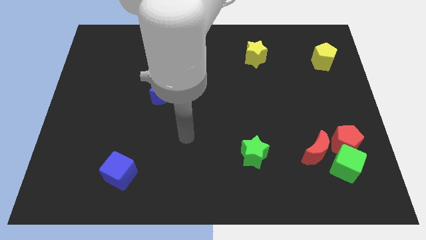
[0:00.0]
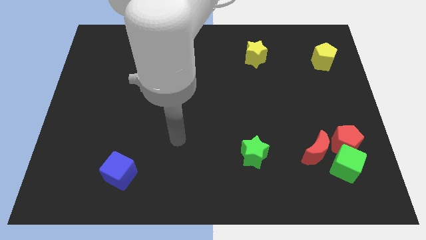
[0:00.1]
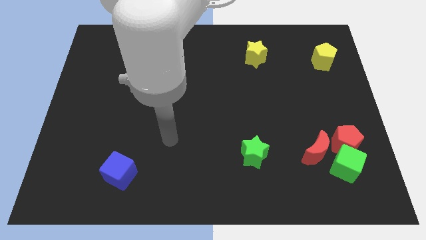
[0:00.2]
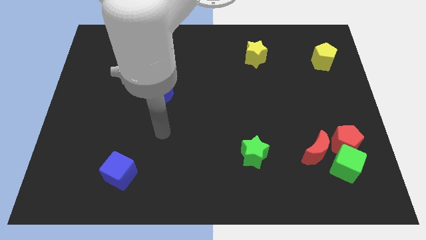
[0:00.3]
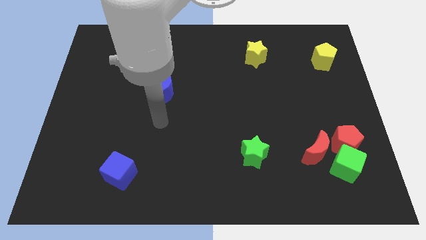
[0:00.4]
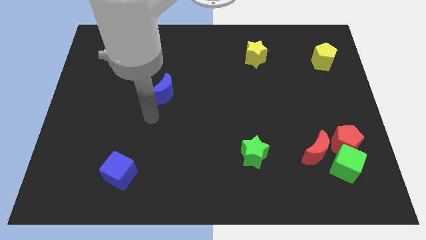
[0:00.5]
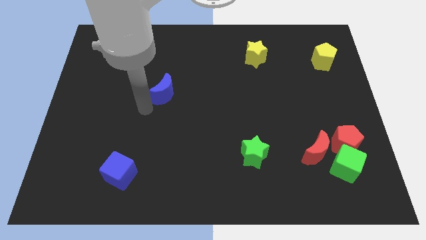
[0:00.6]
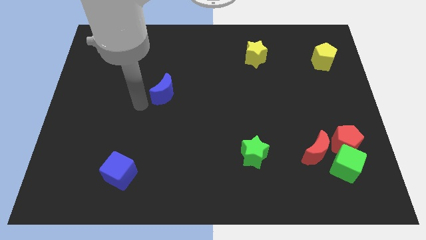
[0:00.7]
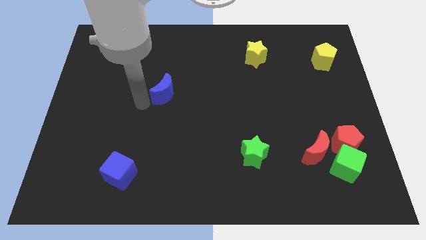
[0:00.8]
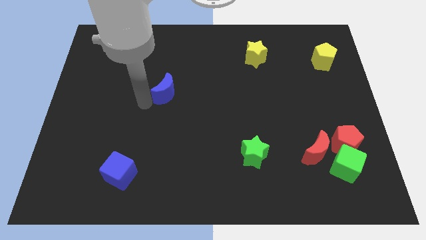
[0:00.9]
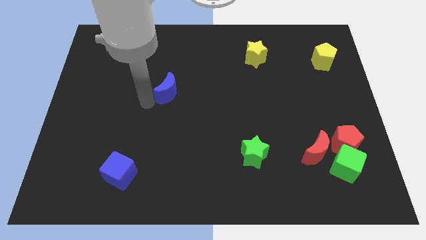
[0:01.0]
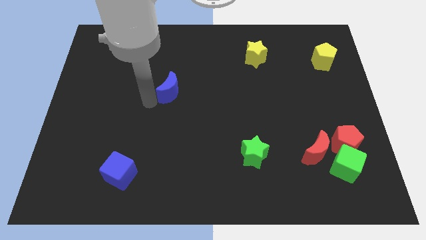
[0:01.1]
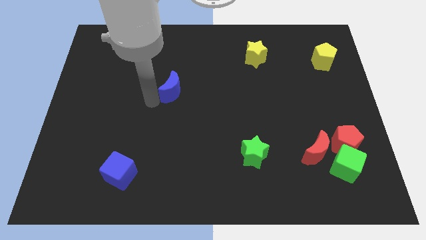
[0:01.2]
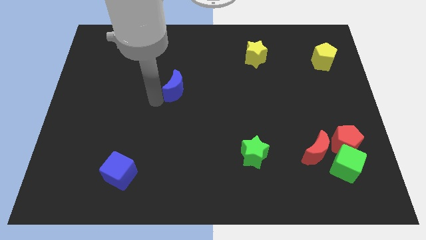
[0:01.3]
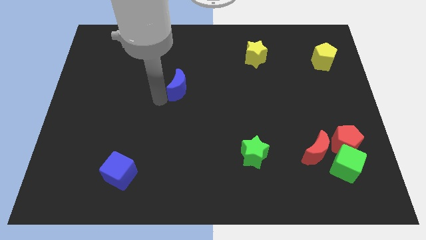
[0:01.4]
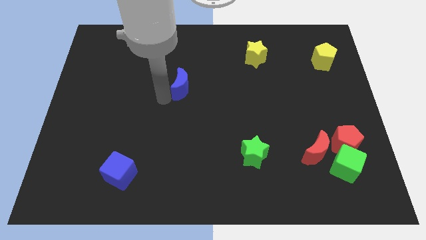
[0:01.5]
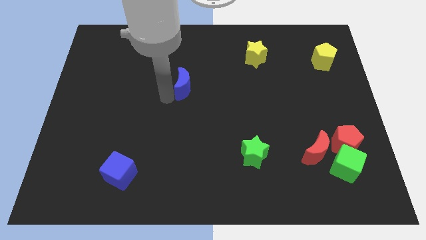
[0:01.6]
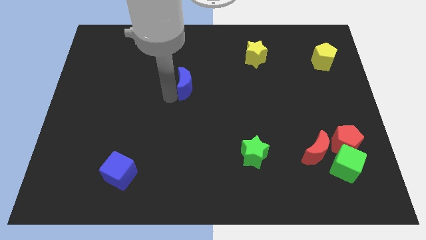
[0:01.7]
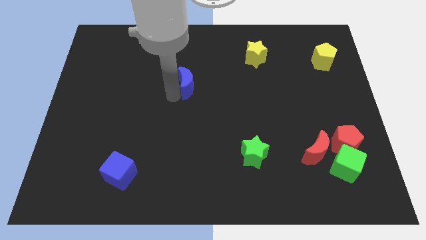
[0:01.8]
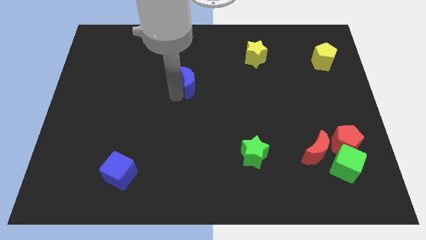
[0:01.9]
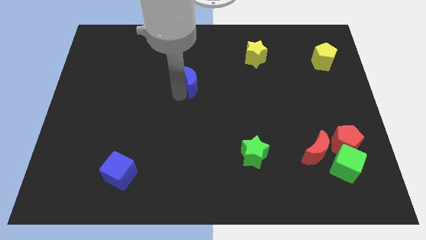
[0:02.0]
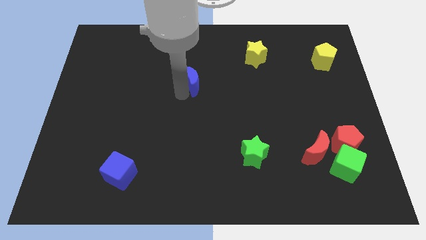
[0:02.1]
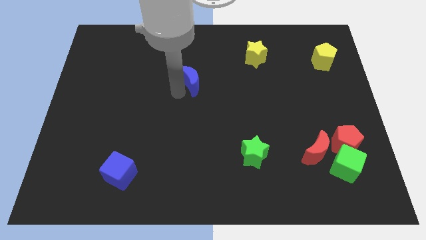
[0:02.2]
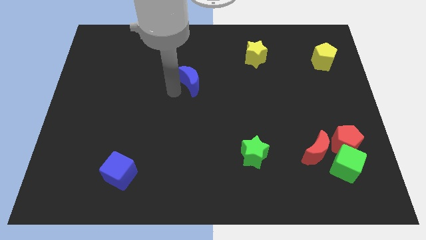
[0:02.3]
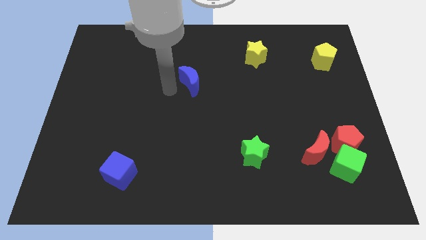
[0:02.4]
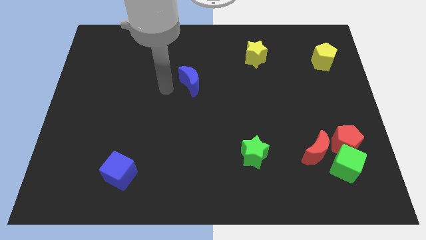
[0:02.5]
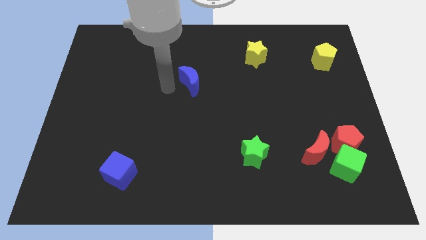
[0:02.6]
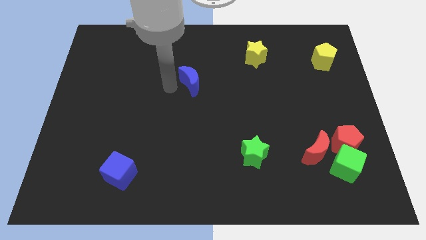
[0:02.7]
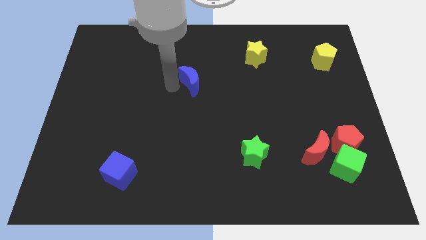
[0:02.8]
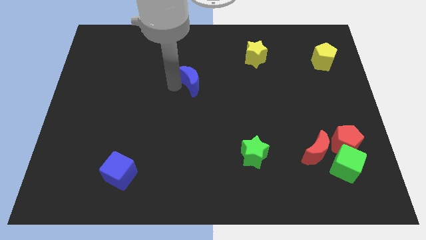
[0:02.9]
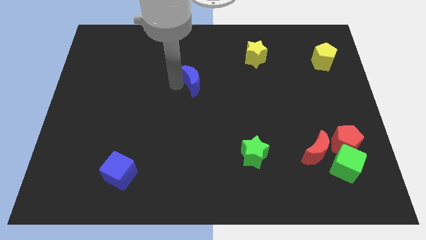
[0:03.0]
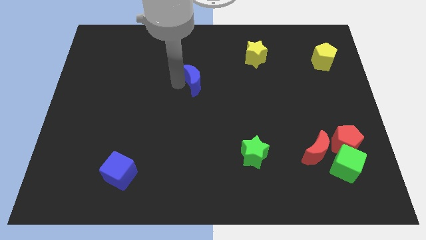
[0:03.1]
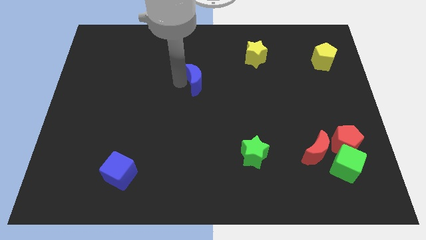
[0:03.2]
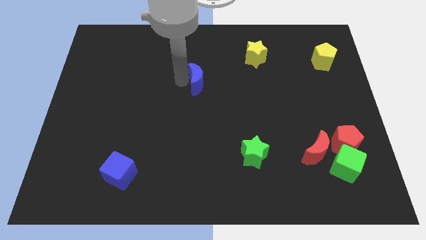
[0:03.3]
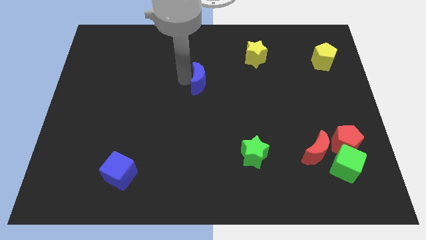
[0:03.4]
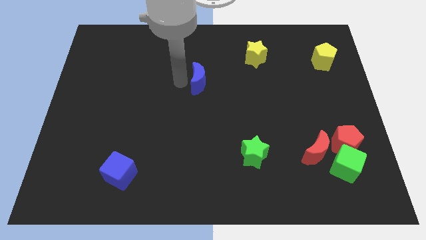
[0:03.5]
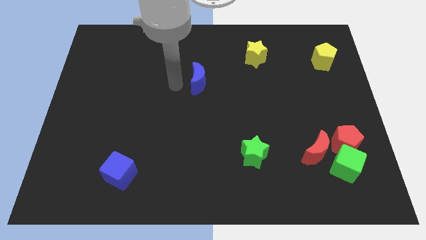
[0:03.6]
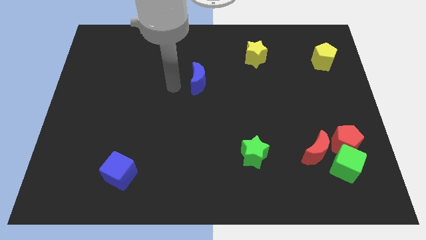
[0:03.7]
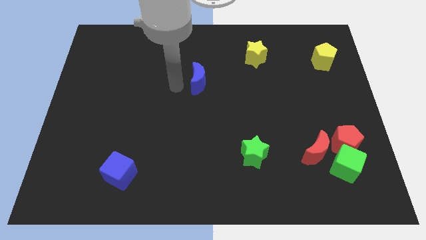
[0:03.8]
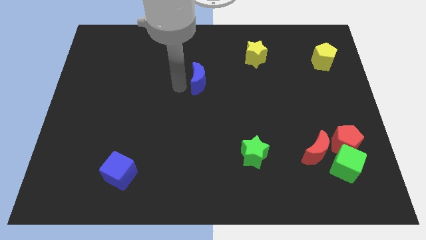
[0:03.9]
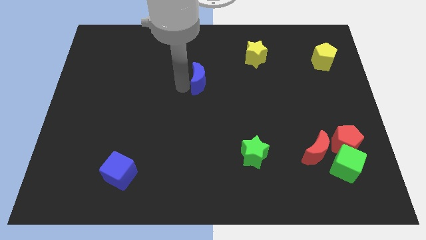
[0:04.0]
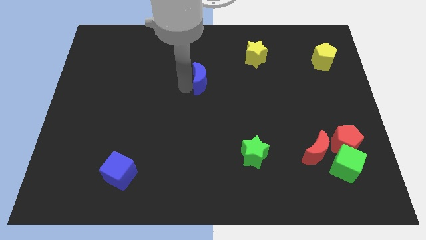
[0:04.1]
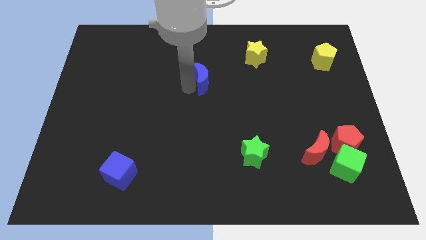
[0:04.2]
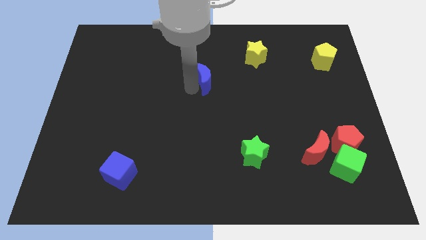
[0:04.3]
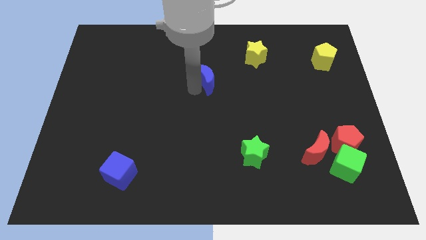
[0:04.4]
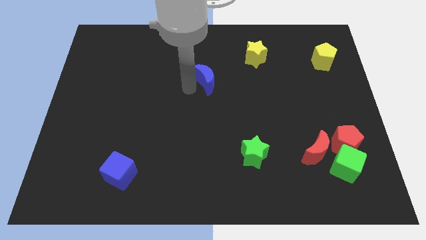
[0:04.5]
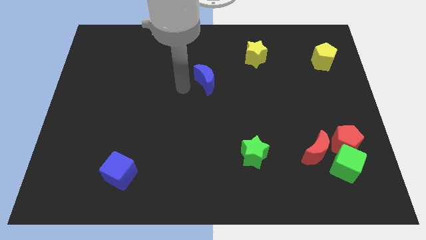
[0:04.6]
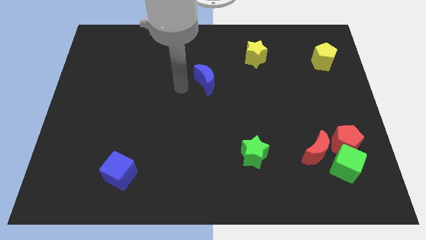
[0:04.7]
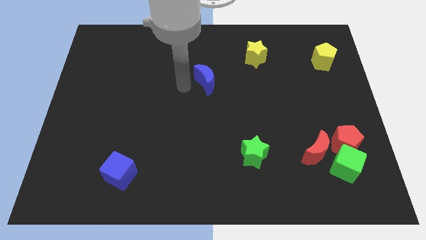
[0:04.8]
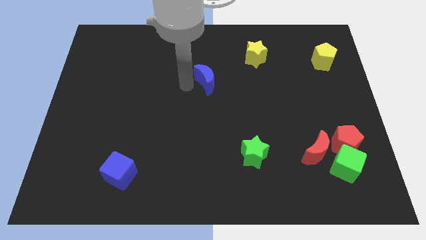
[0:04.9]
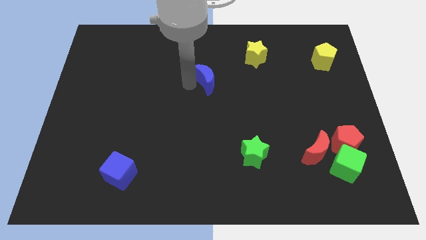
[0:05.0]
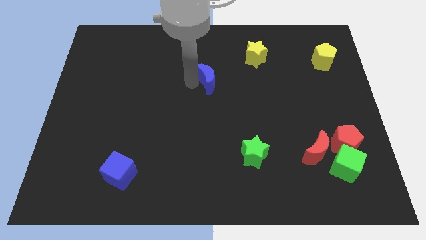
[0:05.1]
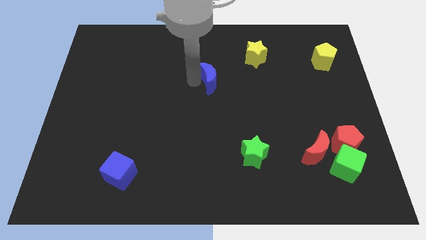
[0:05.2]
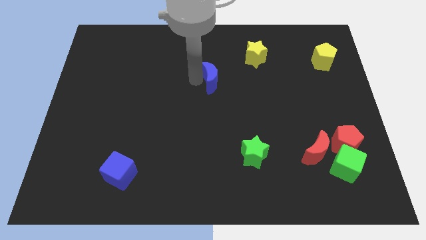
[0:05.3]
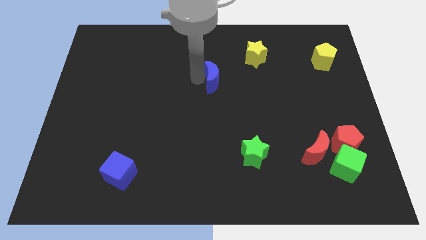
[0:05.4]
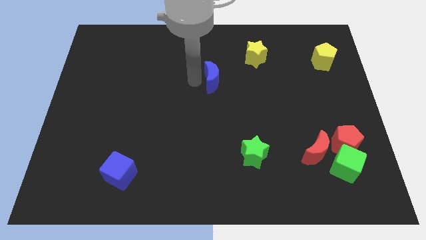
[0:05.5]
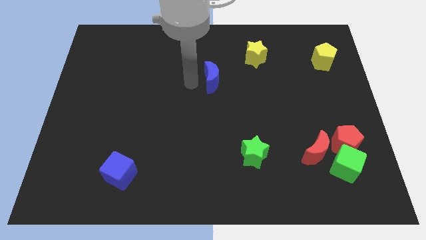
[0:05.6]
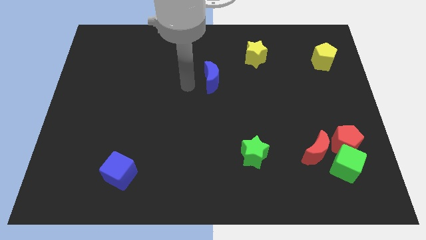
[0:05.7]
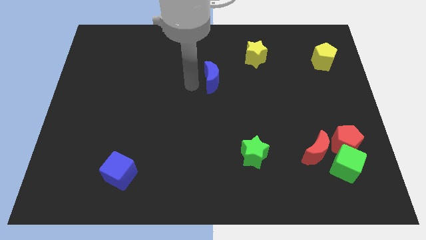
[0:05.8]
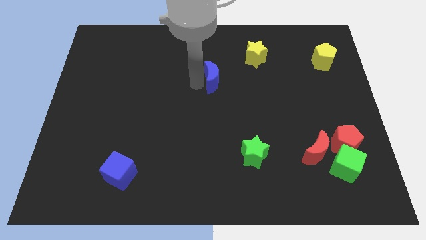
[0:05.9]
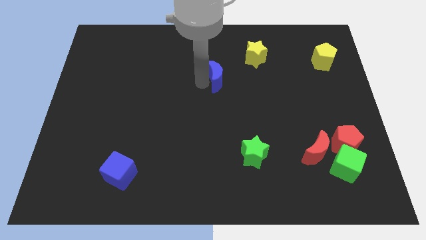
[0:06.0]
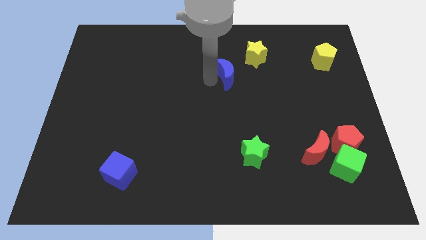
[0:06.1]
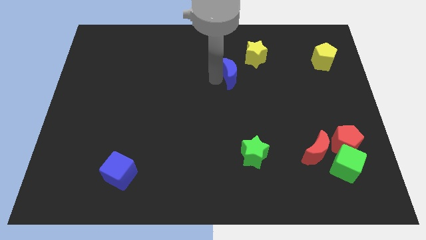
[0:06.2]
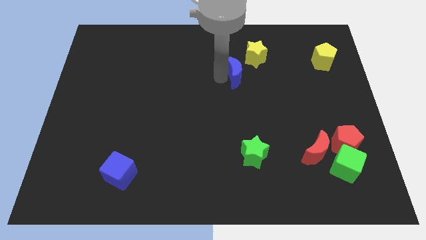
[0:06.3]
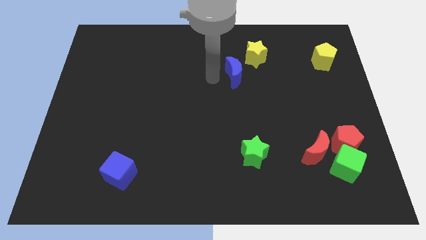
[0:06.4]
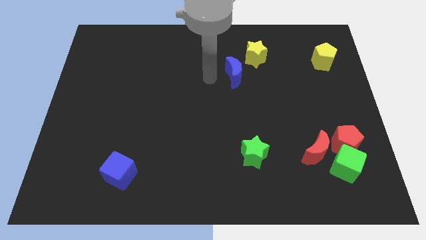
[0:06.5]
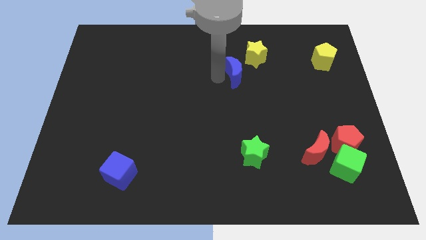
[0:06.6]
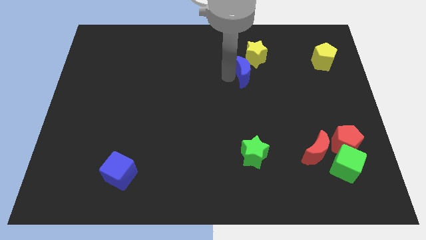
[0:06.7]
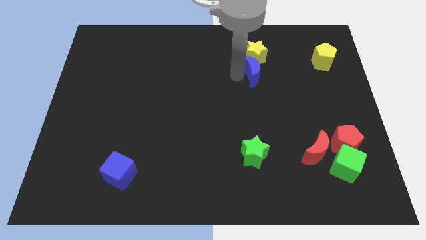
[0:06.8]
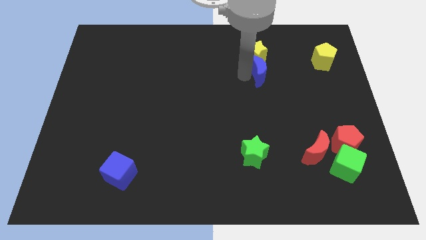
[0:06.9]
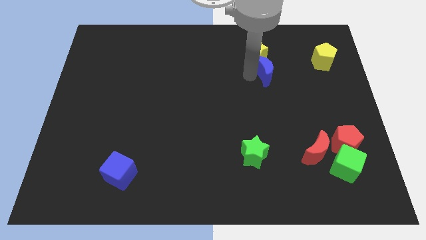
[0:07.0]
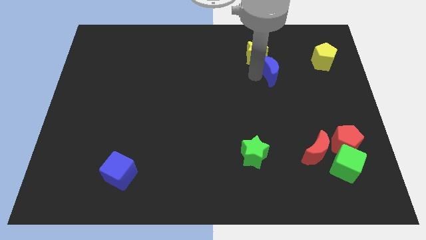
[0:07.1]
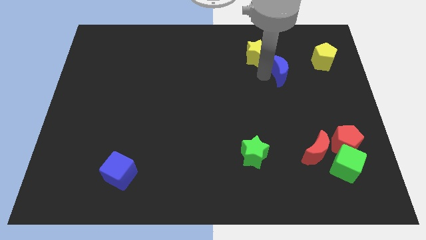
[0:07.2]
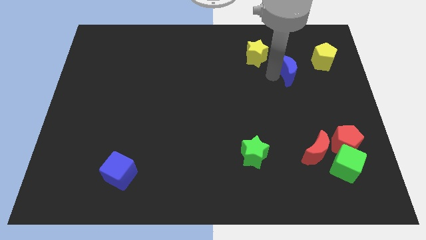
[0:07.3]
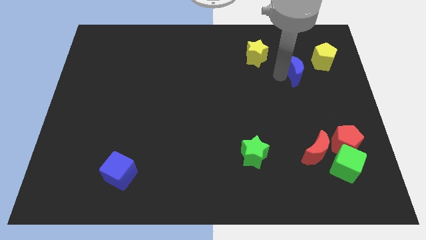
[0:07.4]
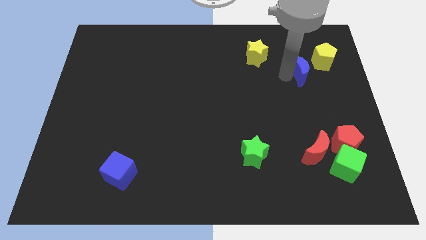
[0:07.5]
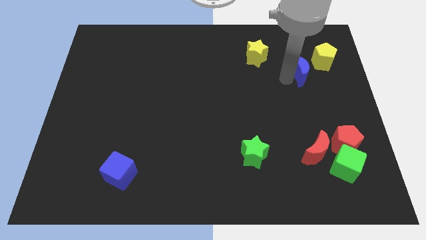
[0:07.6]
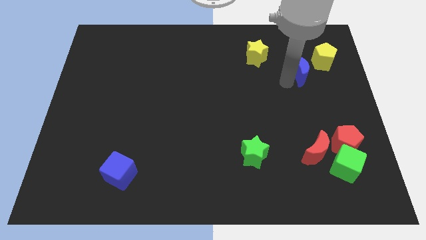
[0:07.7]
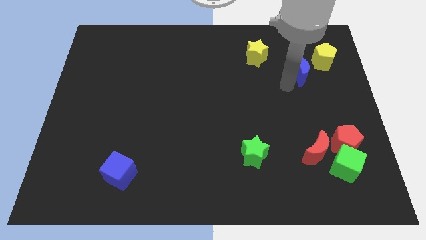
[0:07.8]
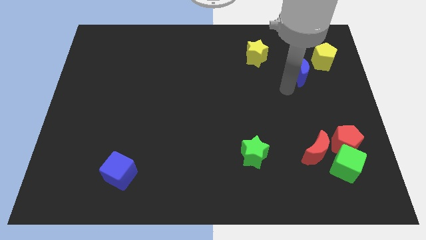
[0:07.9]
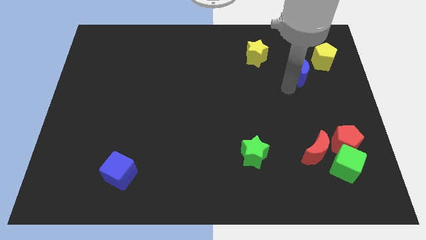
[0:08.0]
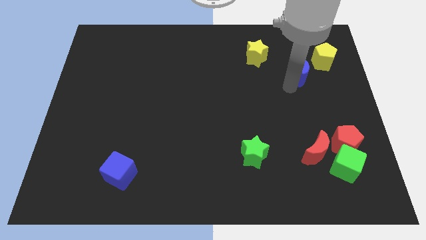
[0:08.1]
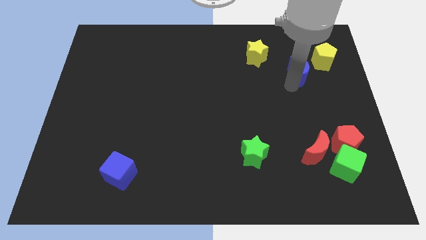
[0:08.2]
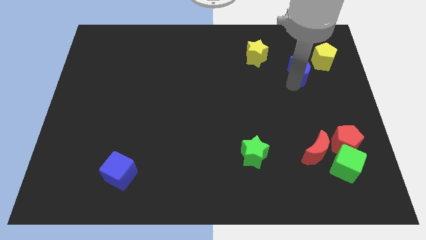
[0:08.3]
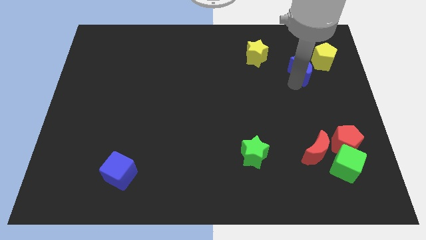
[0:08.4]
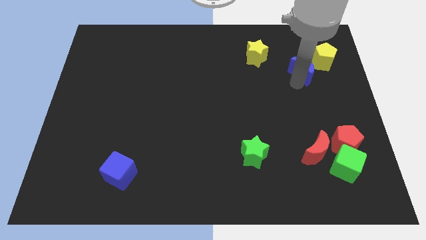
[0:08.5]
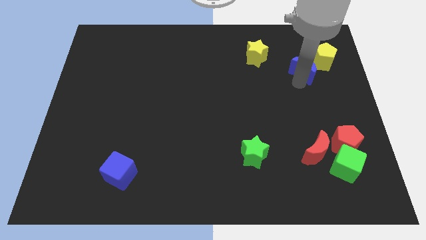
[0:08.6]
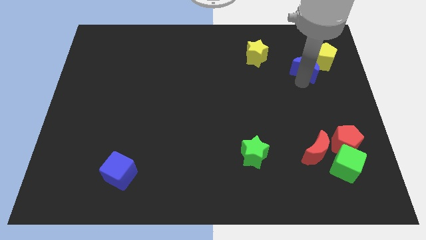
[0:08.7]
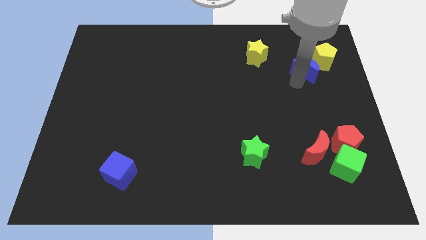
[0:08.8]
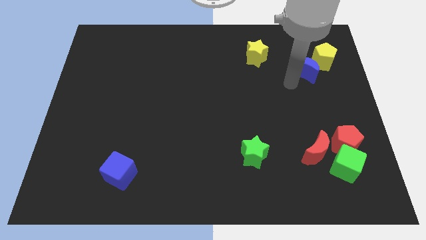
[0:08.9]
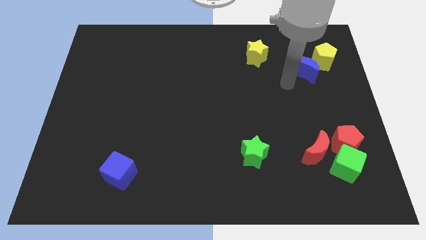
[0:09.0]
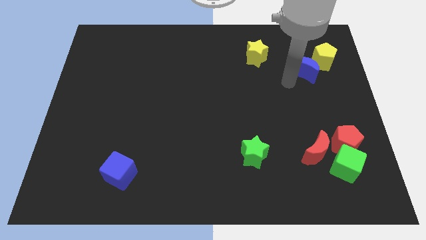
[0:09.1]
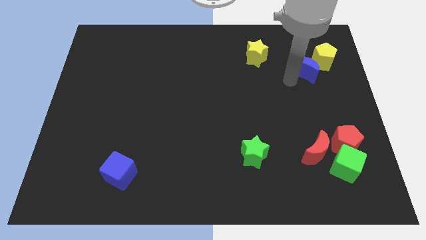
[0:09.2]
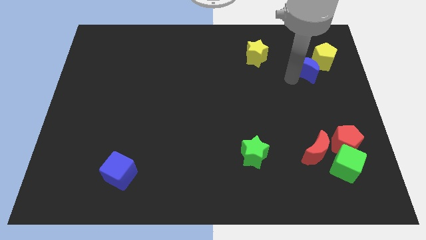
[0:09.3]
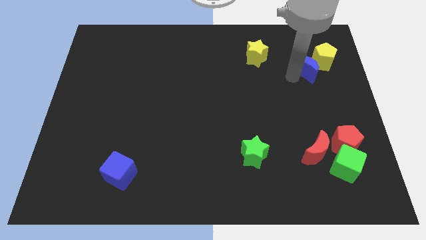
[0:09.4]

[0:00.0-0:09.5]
move the blue moon close to the yellow pentagon
